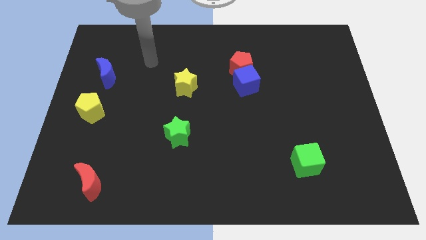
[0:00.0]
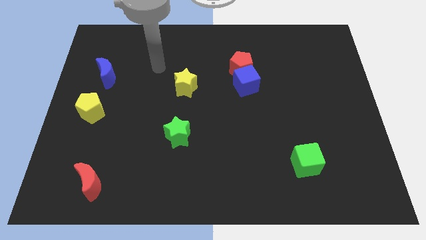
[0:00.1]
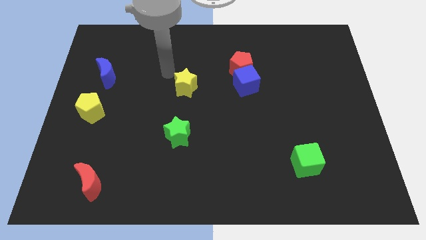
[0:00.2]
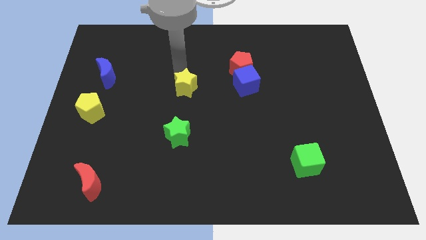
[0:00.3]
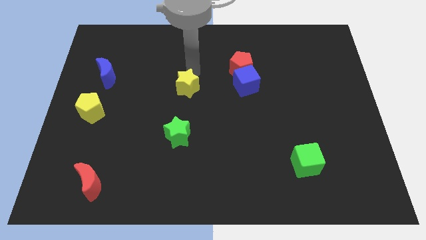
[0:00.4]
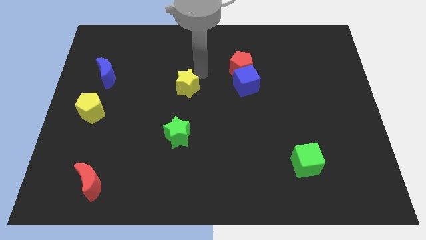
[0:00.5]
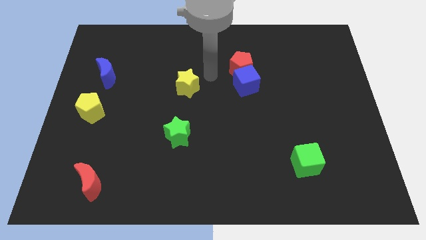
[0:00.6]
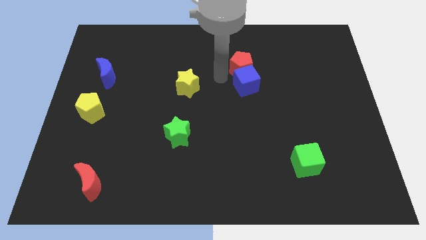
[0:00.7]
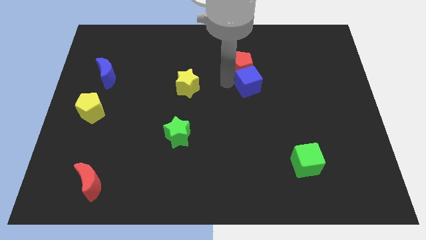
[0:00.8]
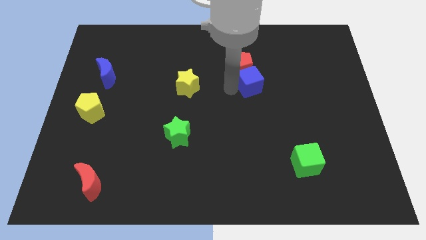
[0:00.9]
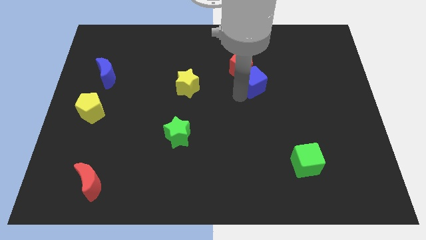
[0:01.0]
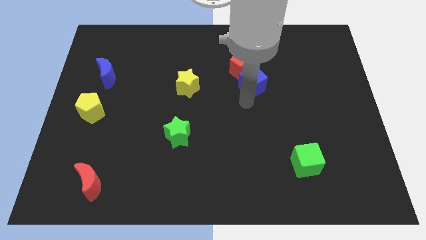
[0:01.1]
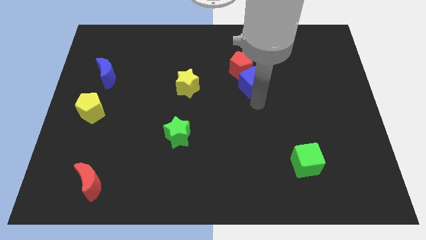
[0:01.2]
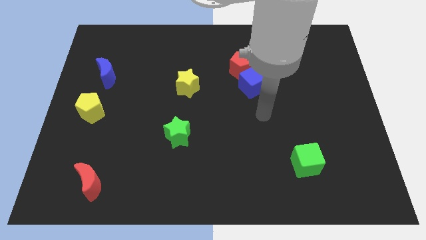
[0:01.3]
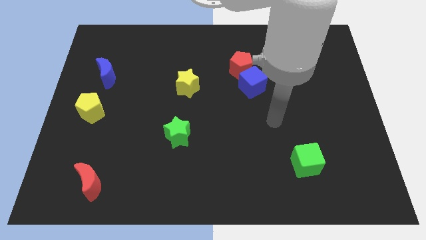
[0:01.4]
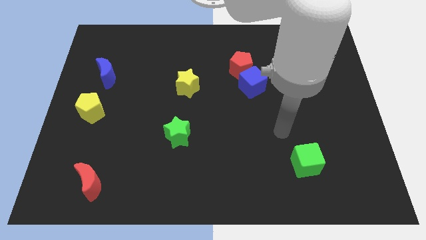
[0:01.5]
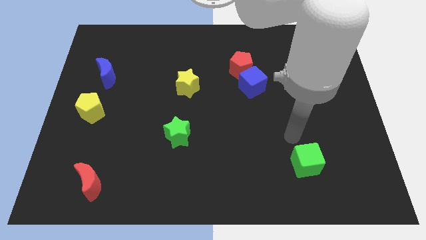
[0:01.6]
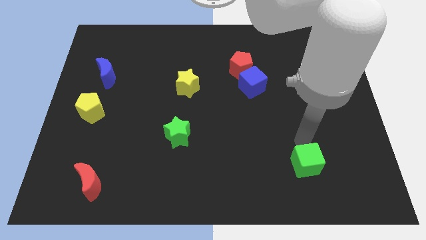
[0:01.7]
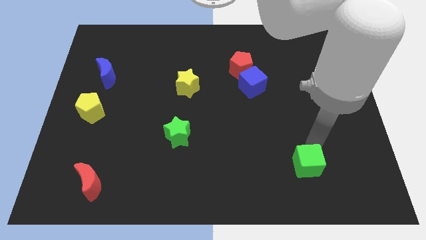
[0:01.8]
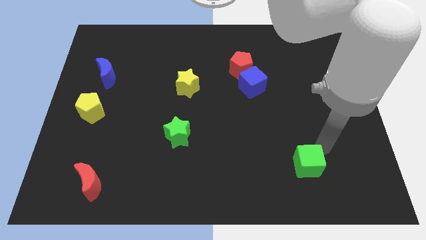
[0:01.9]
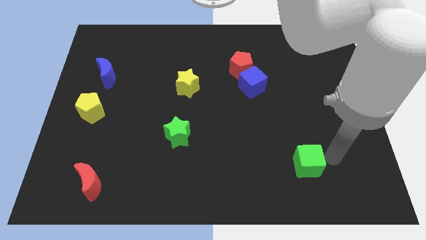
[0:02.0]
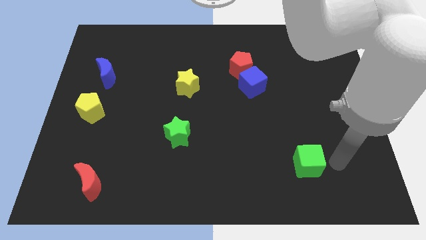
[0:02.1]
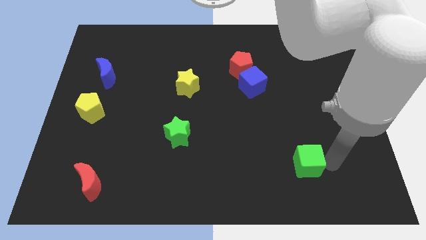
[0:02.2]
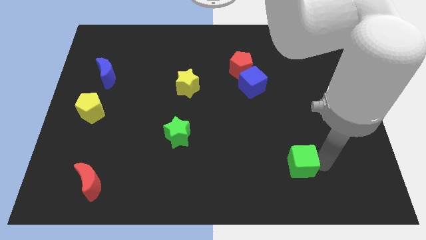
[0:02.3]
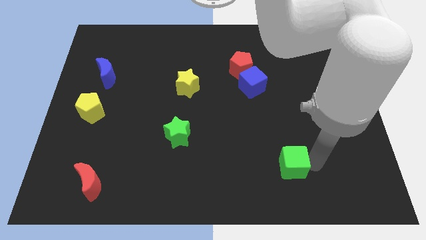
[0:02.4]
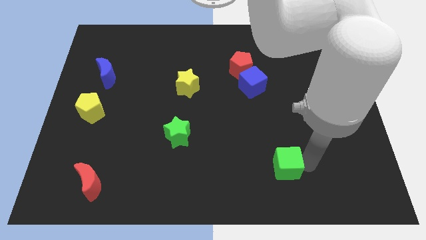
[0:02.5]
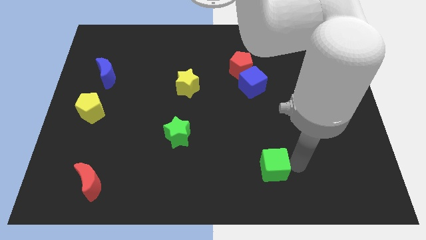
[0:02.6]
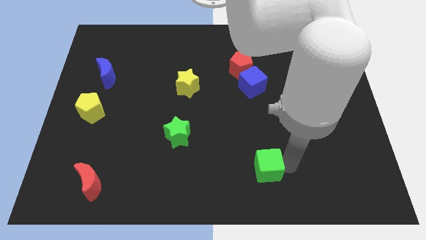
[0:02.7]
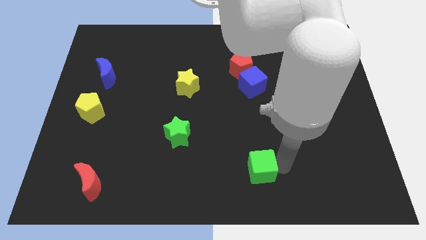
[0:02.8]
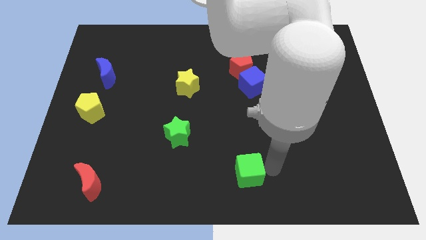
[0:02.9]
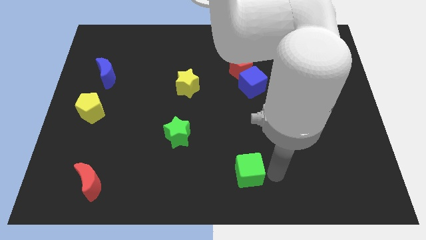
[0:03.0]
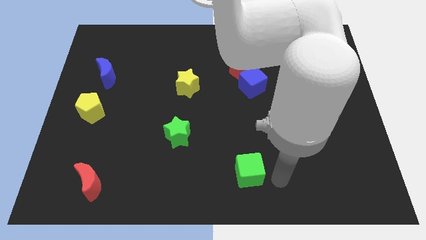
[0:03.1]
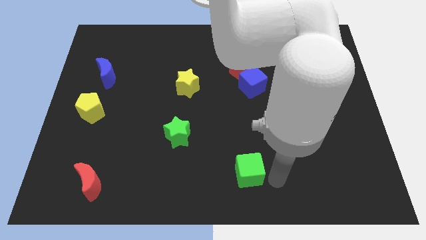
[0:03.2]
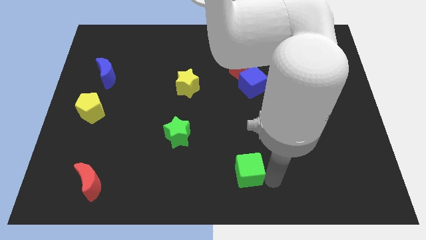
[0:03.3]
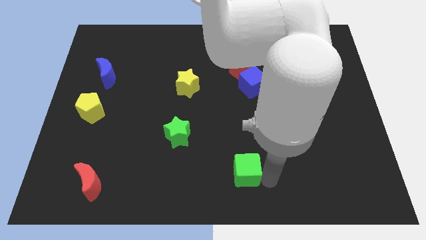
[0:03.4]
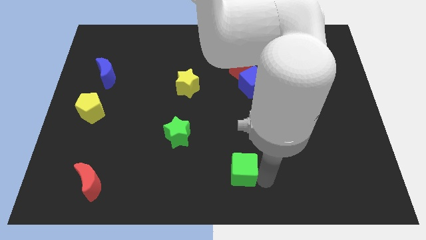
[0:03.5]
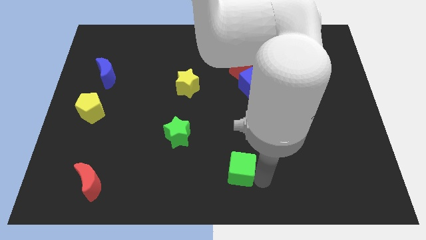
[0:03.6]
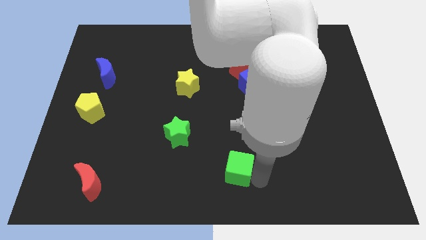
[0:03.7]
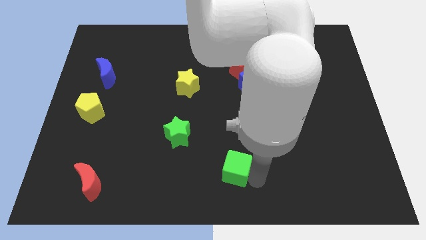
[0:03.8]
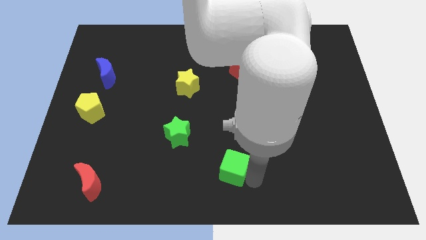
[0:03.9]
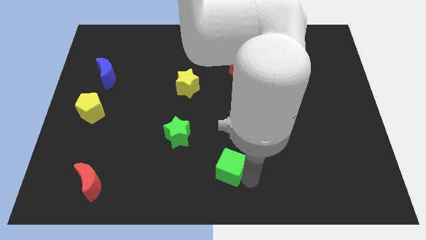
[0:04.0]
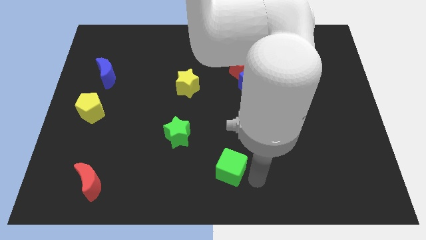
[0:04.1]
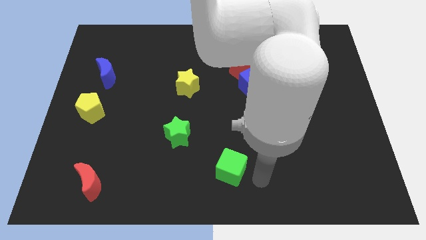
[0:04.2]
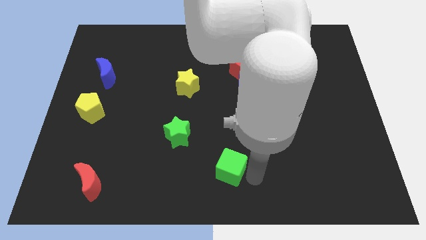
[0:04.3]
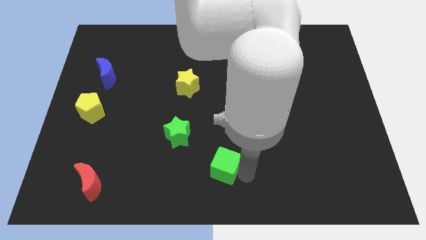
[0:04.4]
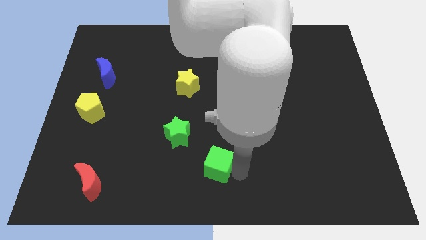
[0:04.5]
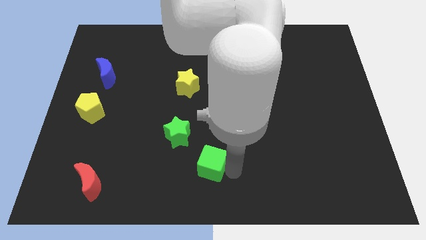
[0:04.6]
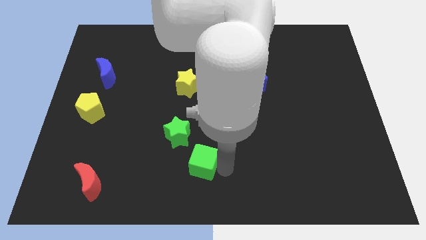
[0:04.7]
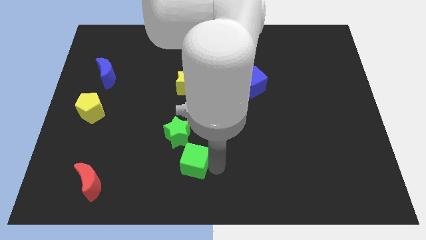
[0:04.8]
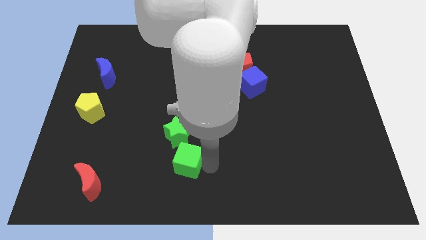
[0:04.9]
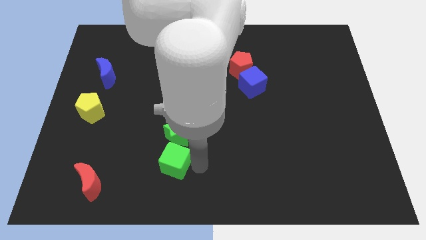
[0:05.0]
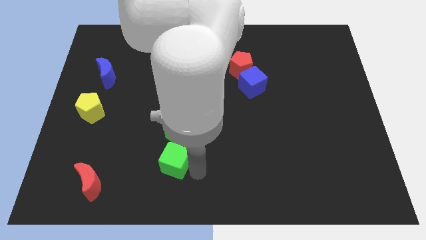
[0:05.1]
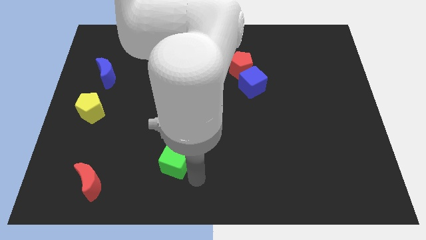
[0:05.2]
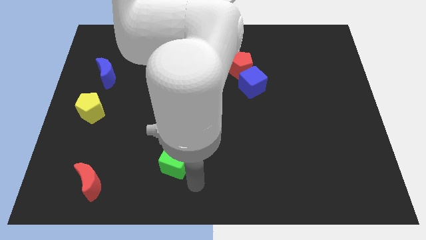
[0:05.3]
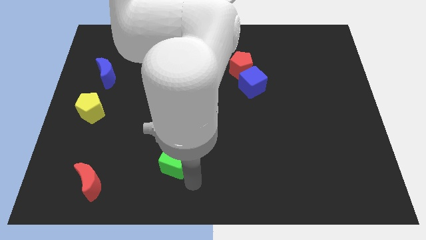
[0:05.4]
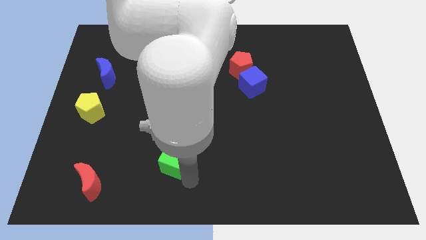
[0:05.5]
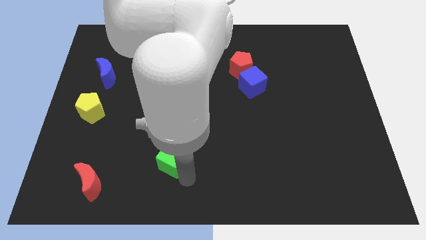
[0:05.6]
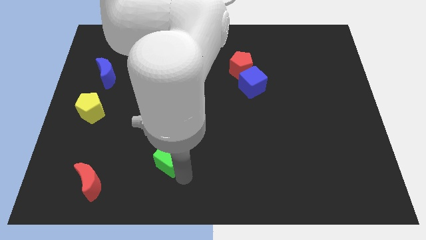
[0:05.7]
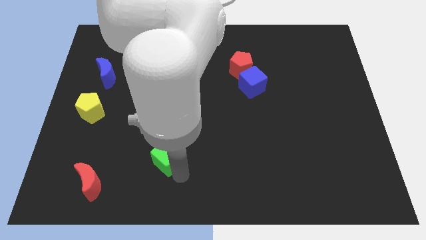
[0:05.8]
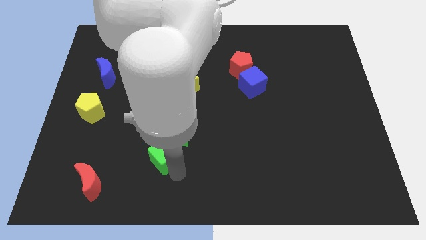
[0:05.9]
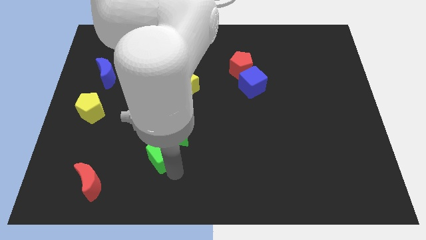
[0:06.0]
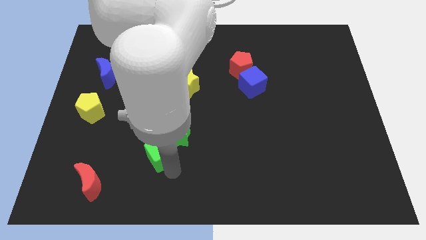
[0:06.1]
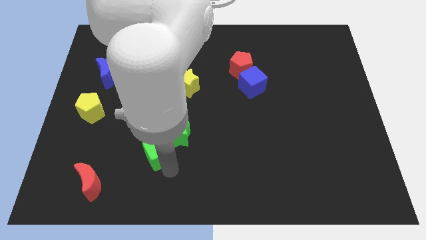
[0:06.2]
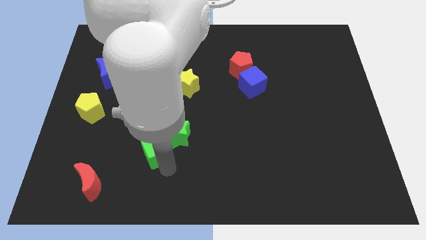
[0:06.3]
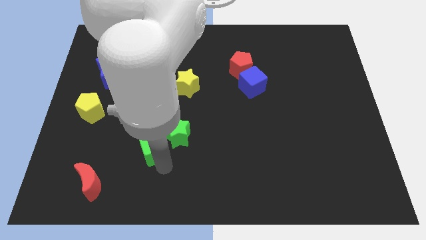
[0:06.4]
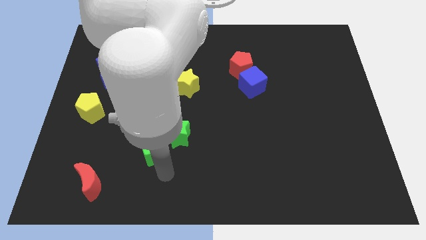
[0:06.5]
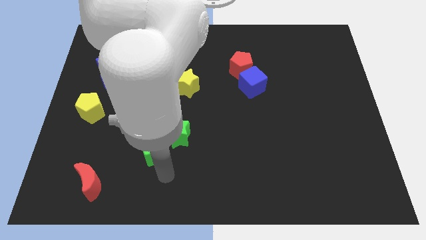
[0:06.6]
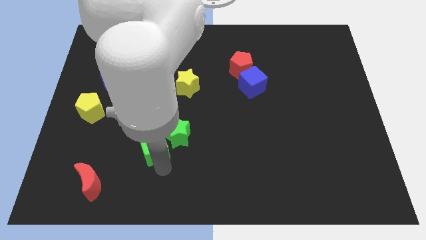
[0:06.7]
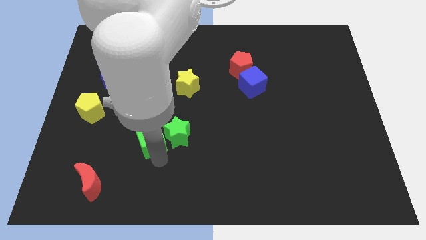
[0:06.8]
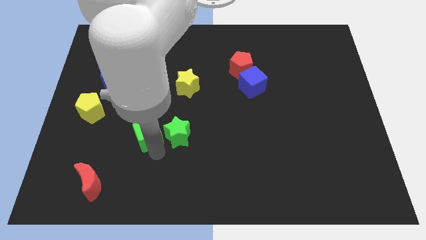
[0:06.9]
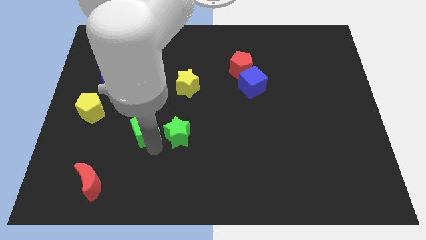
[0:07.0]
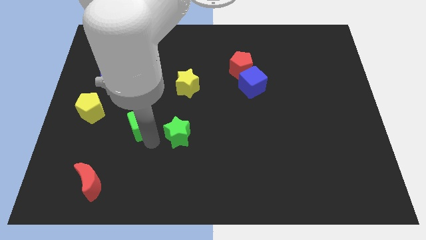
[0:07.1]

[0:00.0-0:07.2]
slide the green cube to the right side of the yellow pentagon
